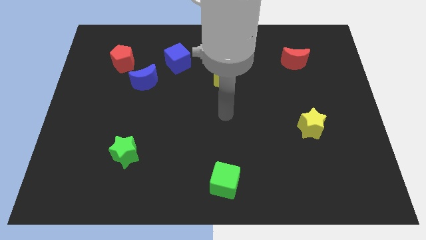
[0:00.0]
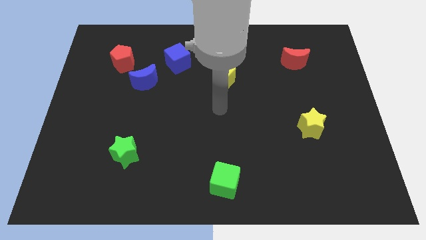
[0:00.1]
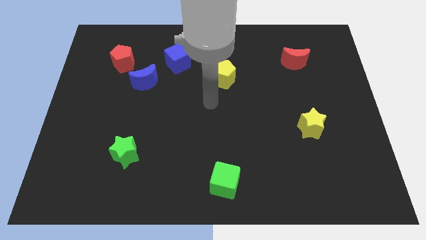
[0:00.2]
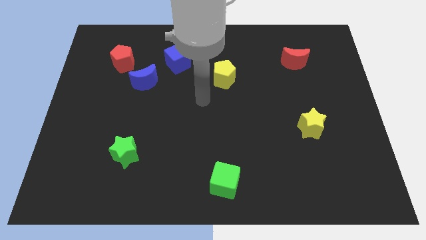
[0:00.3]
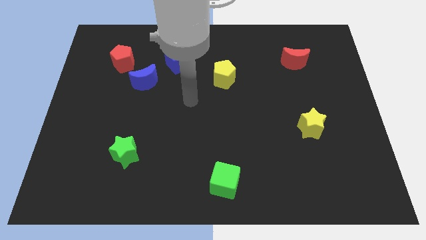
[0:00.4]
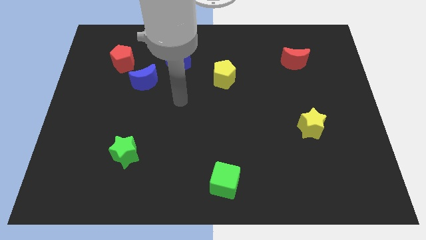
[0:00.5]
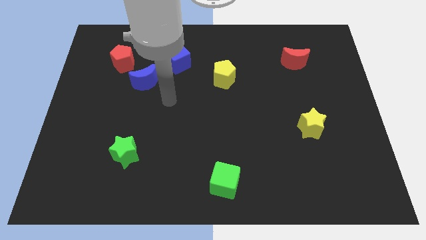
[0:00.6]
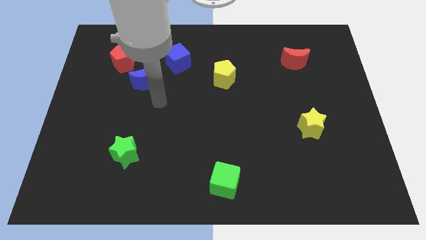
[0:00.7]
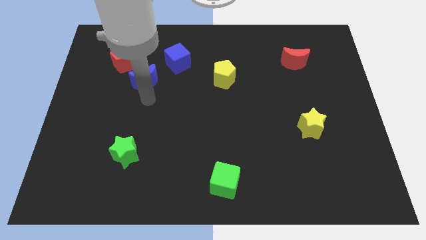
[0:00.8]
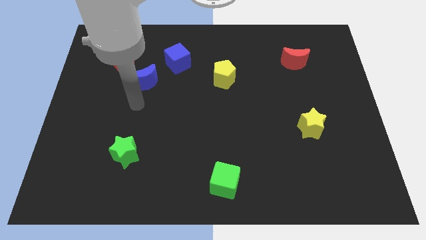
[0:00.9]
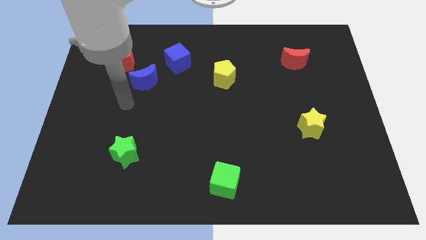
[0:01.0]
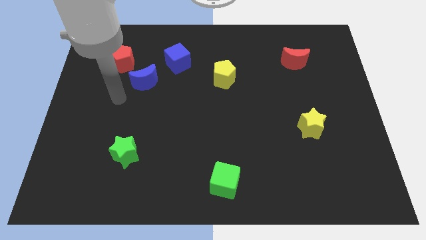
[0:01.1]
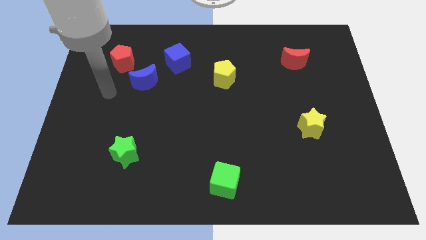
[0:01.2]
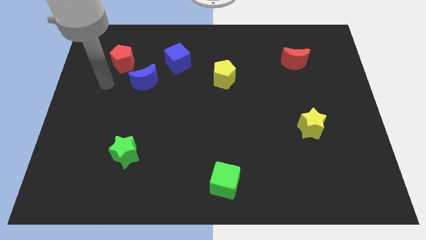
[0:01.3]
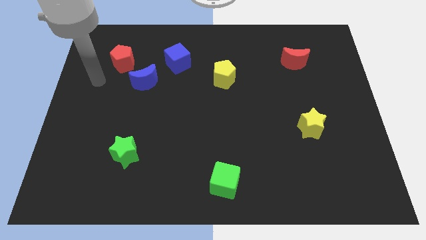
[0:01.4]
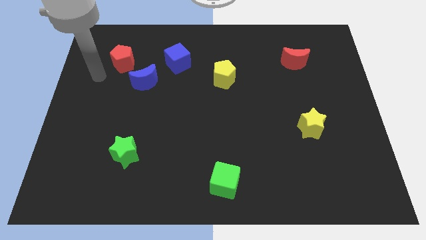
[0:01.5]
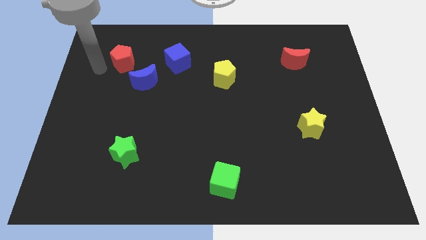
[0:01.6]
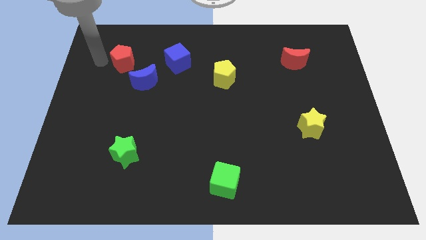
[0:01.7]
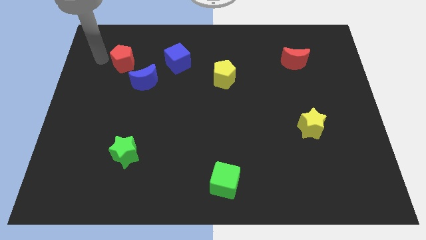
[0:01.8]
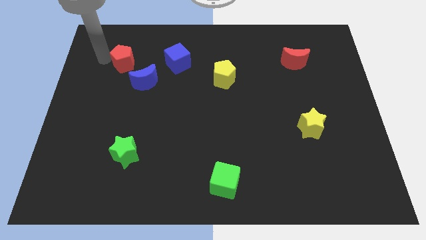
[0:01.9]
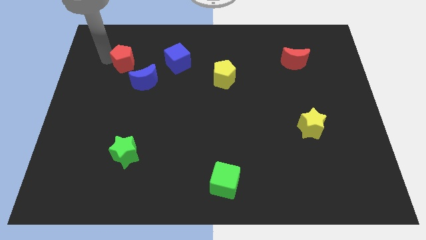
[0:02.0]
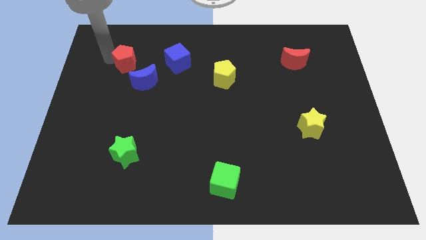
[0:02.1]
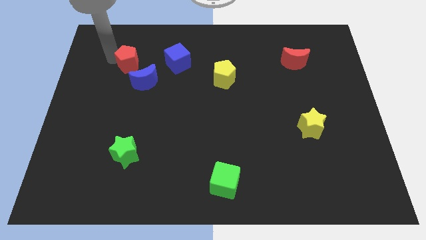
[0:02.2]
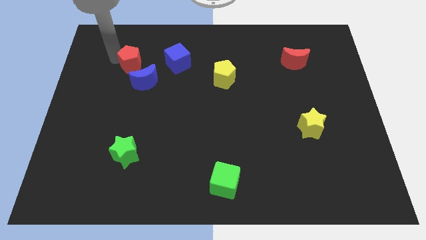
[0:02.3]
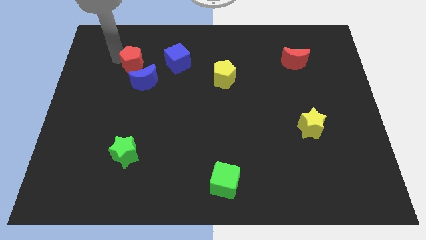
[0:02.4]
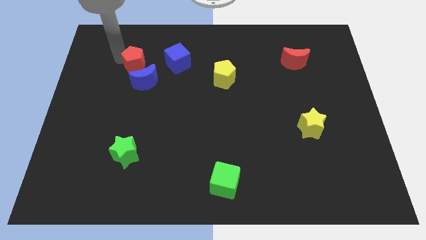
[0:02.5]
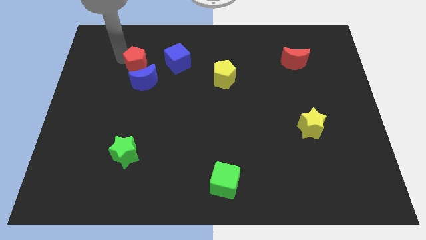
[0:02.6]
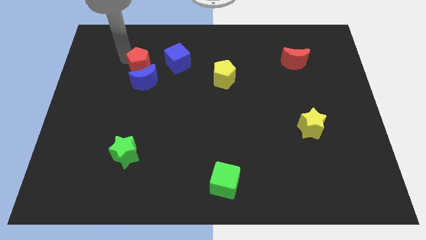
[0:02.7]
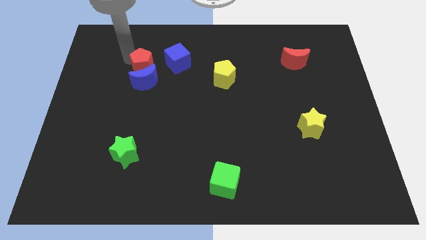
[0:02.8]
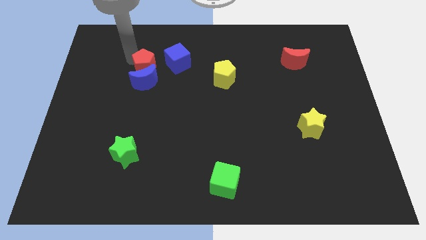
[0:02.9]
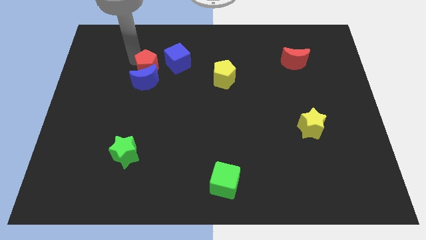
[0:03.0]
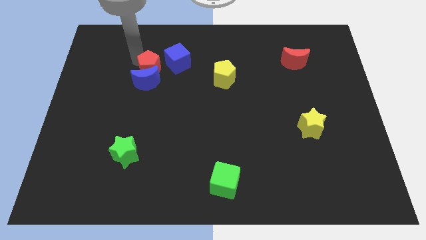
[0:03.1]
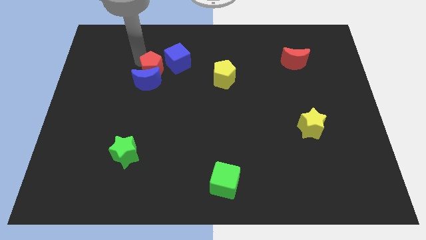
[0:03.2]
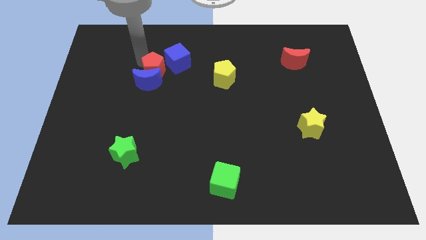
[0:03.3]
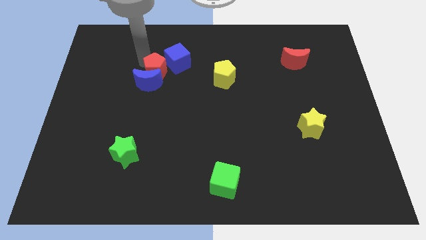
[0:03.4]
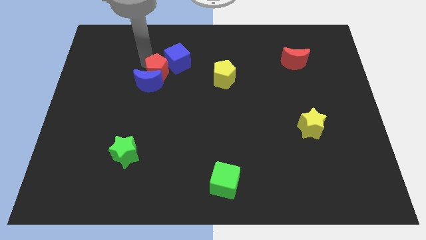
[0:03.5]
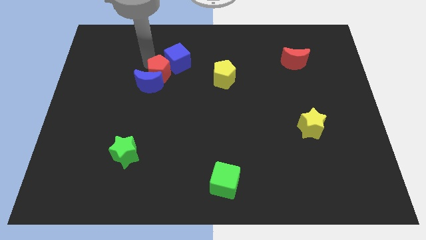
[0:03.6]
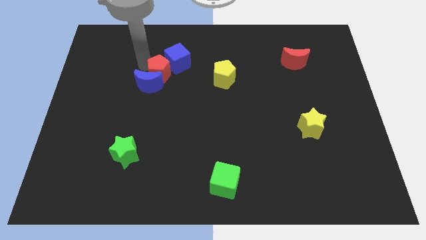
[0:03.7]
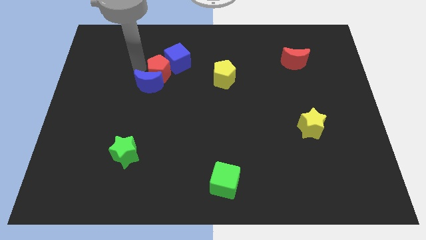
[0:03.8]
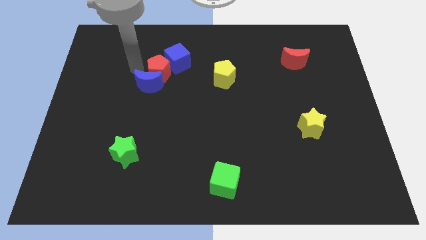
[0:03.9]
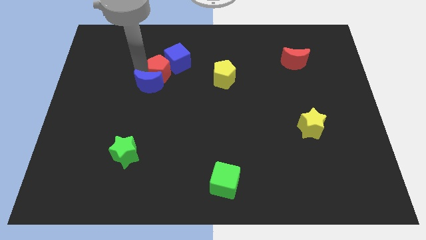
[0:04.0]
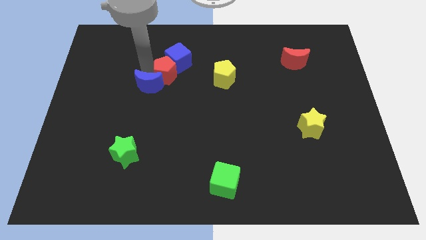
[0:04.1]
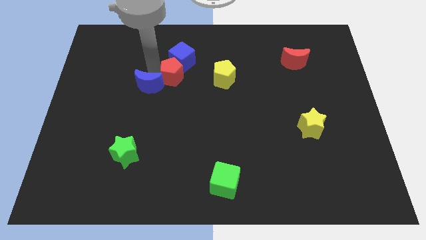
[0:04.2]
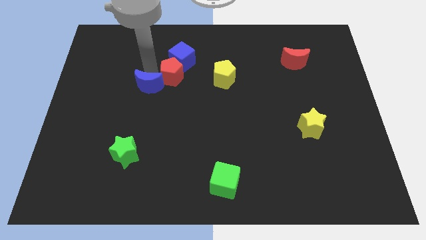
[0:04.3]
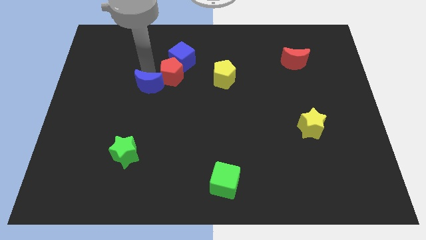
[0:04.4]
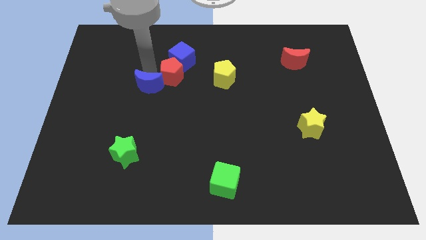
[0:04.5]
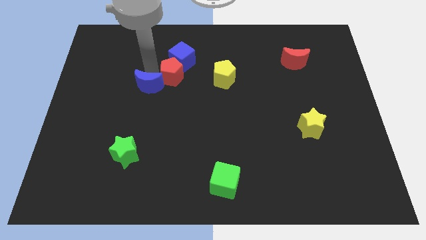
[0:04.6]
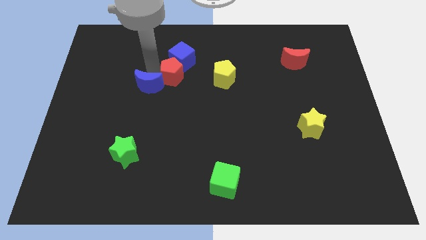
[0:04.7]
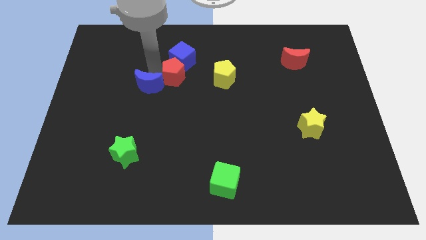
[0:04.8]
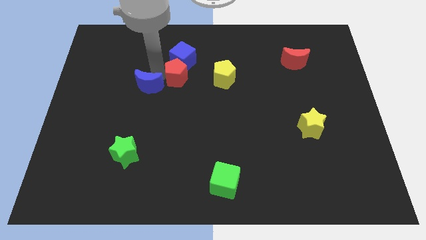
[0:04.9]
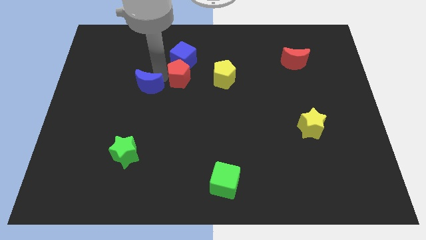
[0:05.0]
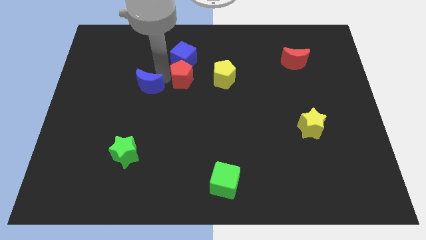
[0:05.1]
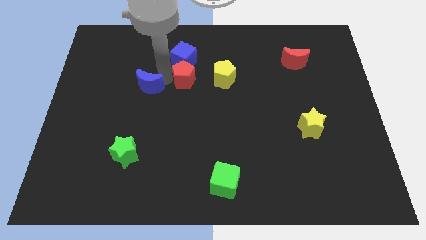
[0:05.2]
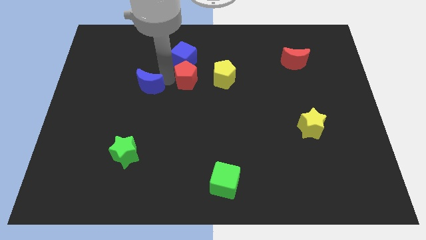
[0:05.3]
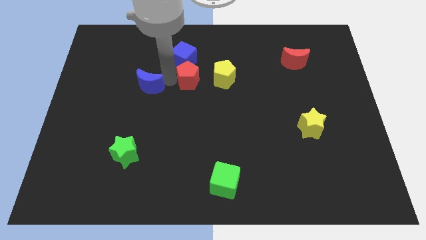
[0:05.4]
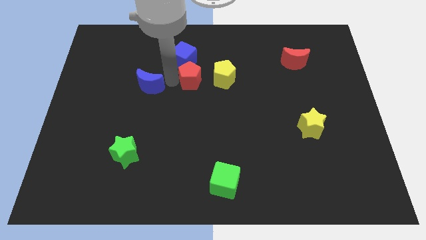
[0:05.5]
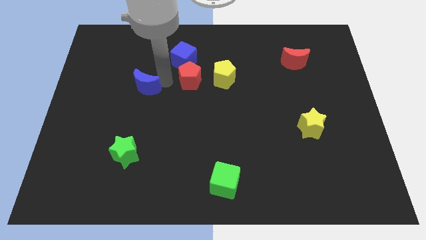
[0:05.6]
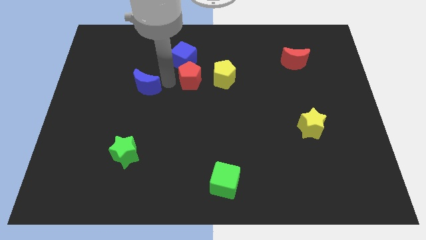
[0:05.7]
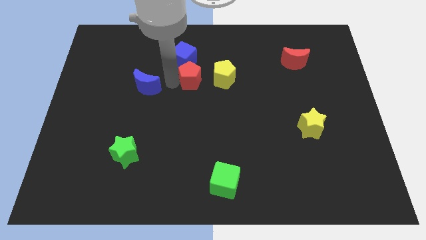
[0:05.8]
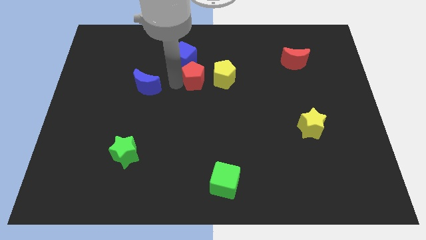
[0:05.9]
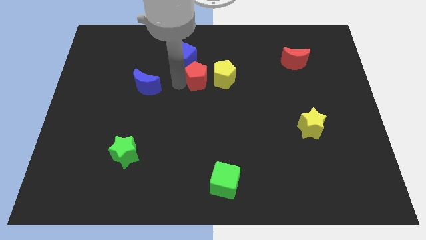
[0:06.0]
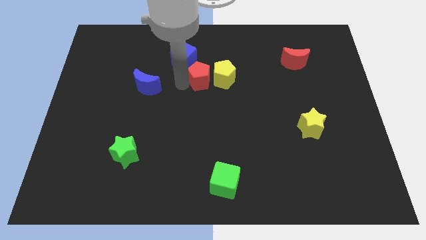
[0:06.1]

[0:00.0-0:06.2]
move the red pentagon next to the yellow pentagon

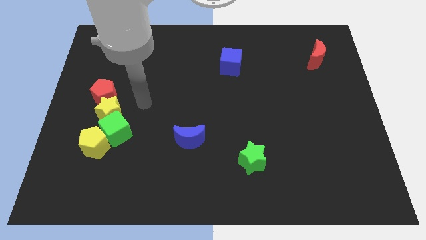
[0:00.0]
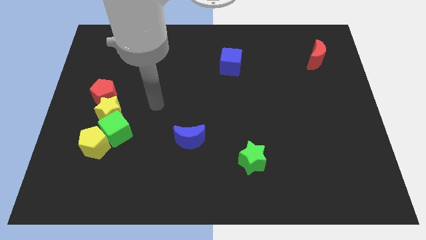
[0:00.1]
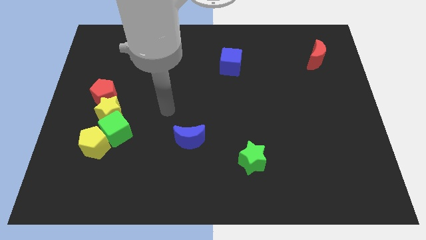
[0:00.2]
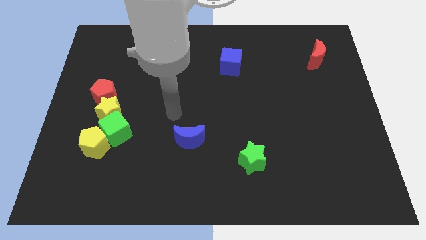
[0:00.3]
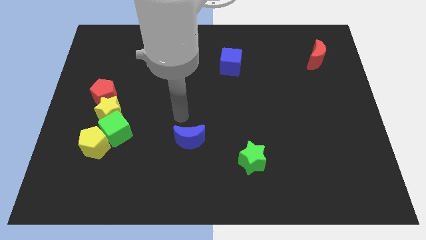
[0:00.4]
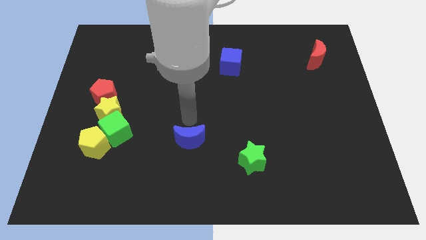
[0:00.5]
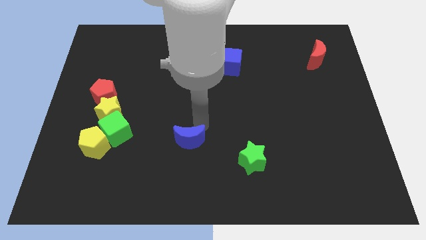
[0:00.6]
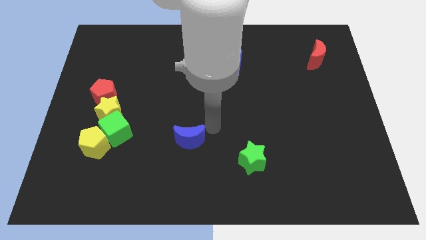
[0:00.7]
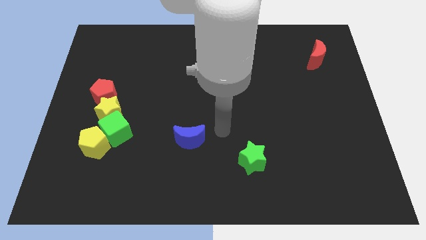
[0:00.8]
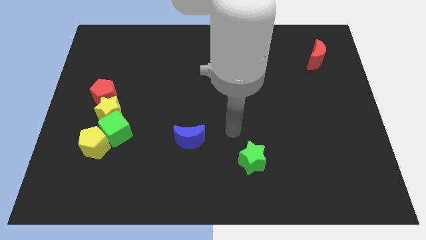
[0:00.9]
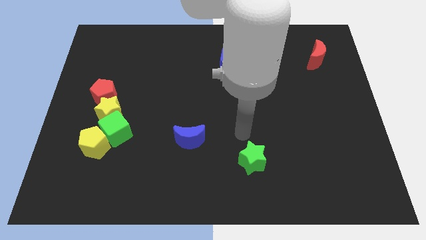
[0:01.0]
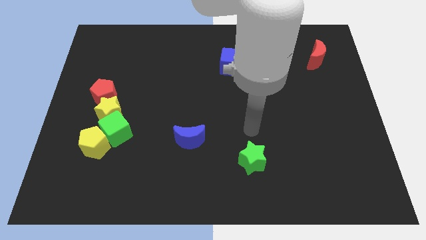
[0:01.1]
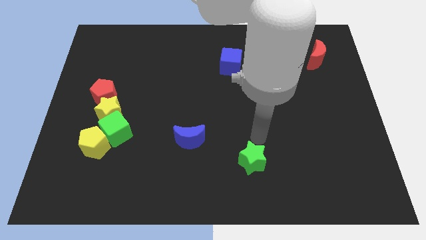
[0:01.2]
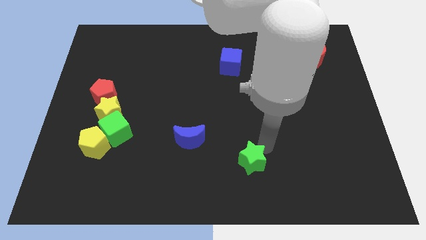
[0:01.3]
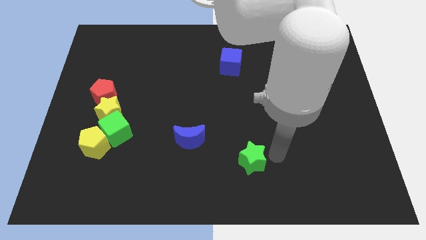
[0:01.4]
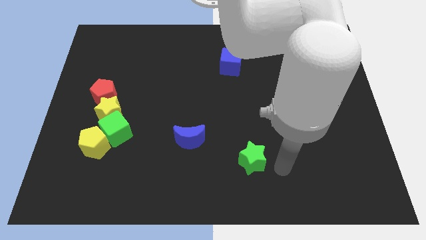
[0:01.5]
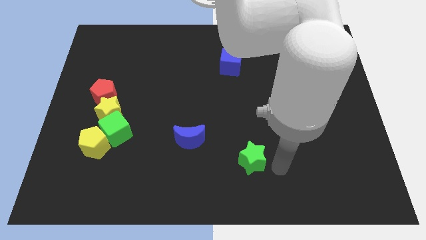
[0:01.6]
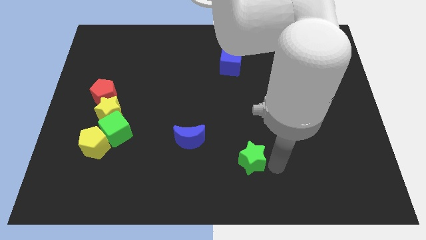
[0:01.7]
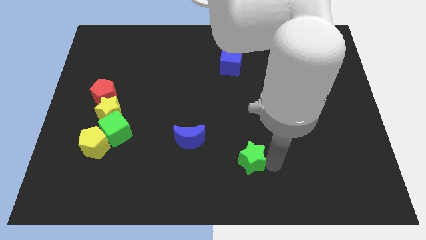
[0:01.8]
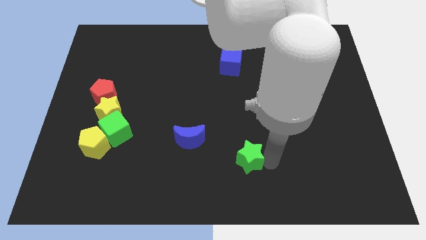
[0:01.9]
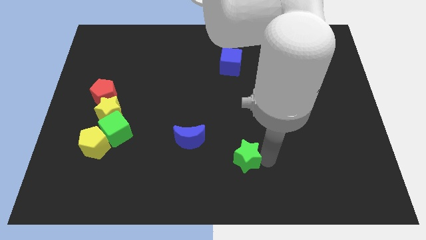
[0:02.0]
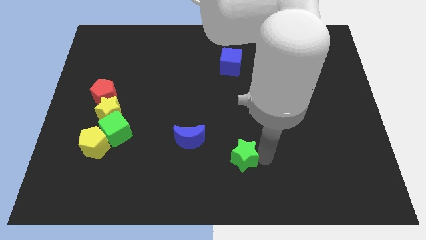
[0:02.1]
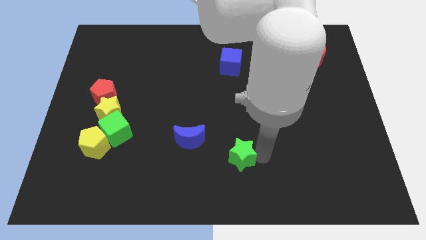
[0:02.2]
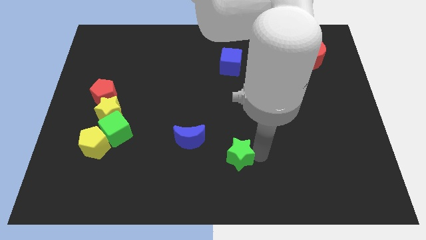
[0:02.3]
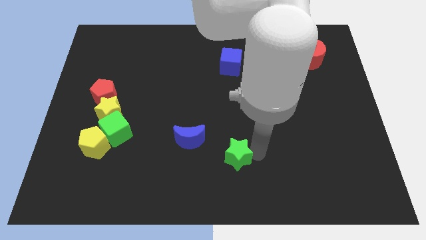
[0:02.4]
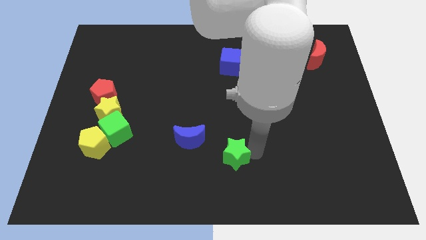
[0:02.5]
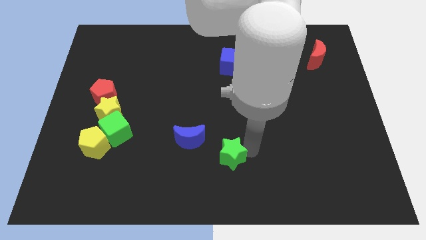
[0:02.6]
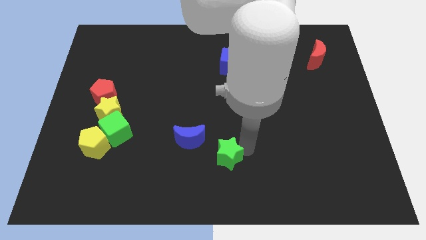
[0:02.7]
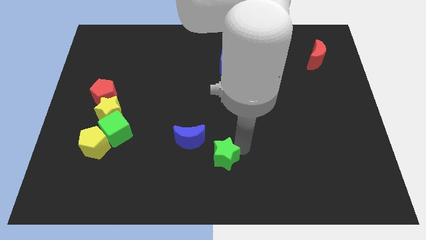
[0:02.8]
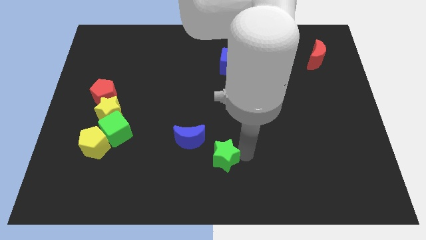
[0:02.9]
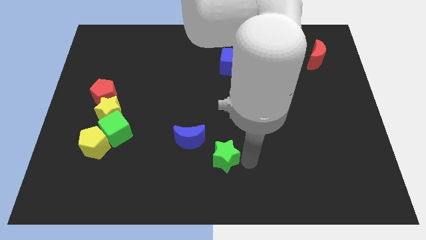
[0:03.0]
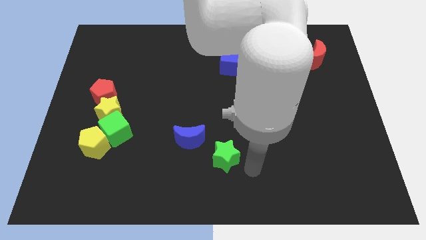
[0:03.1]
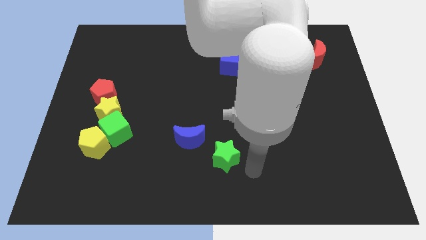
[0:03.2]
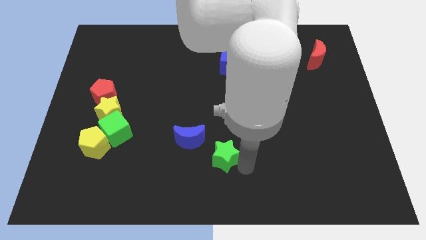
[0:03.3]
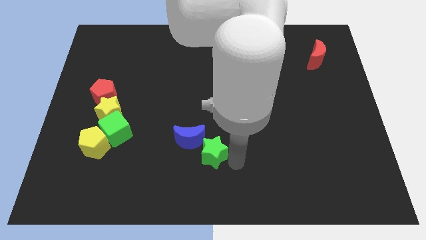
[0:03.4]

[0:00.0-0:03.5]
move the green star to the blue moon
